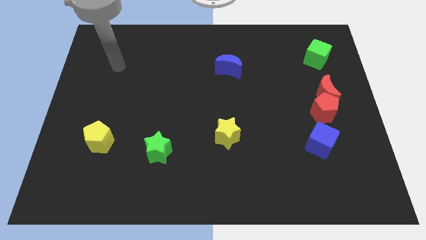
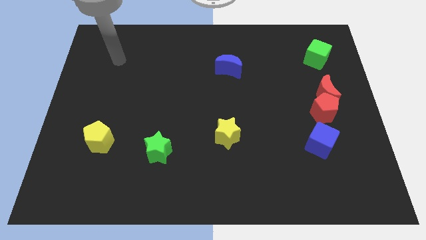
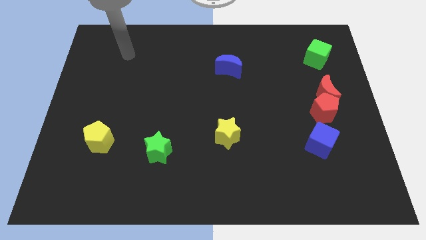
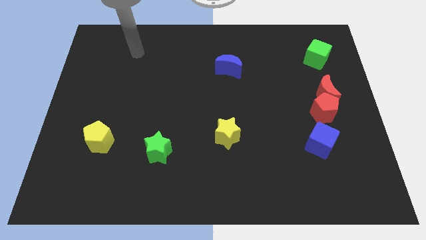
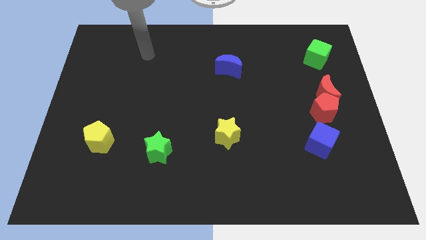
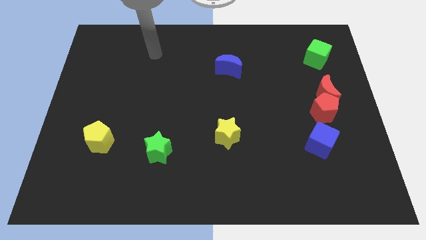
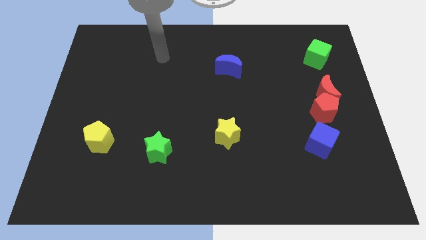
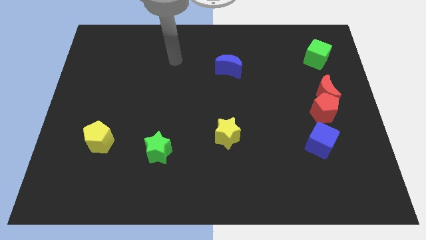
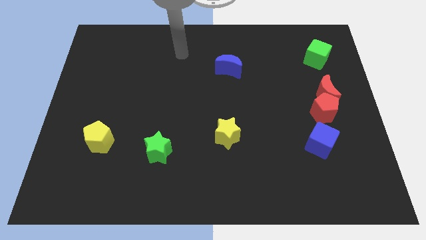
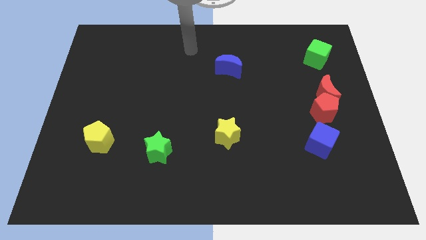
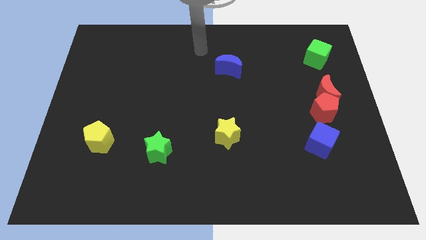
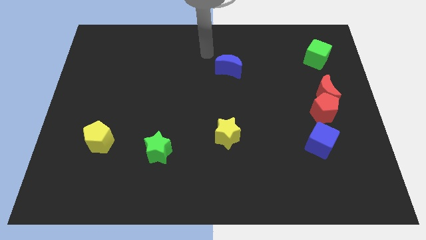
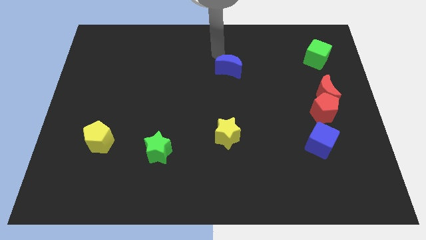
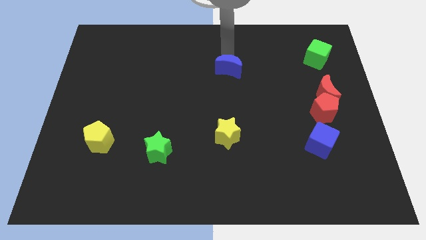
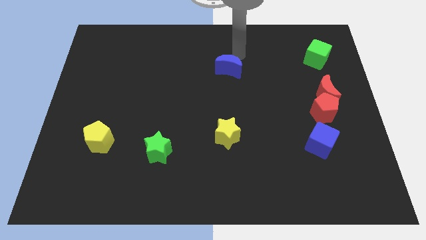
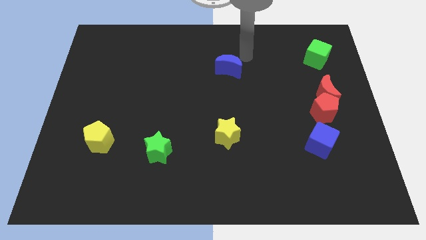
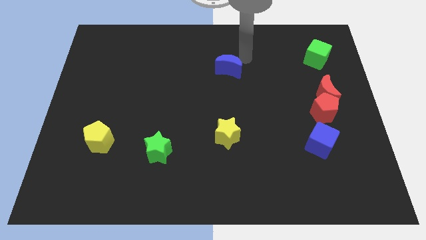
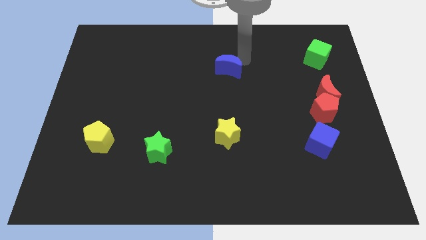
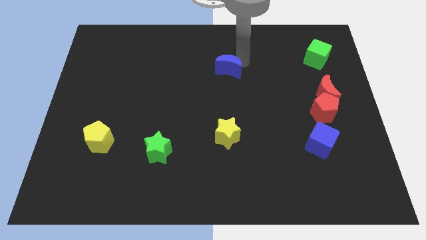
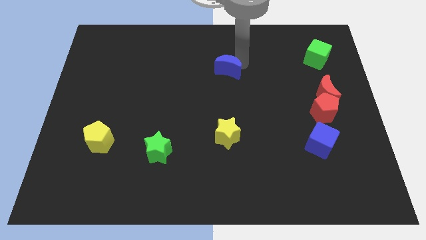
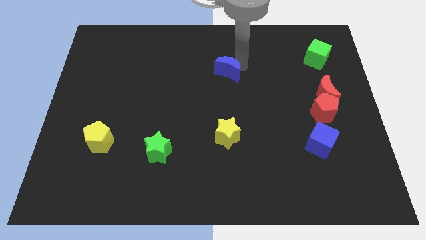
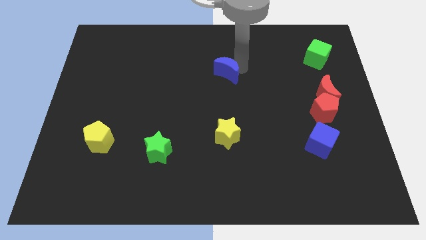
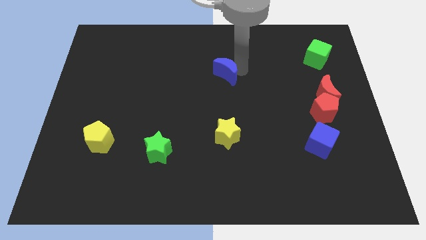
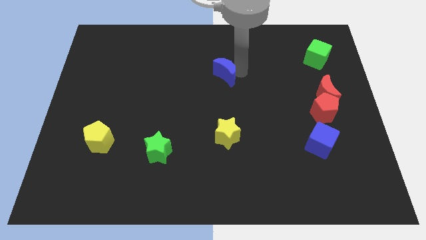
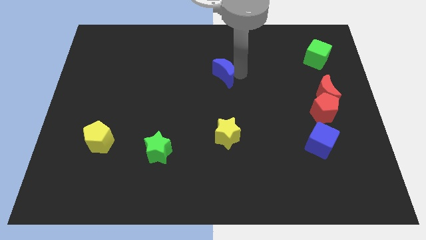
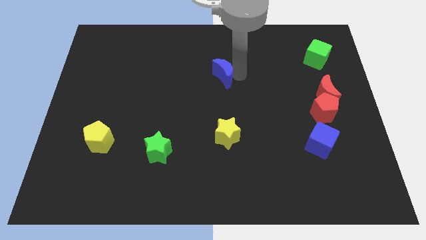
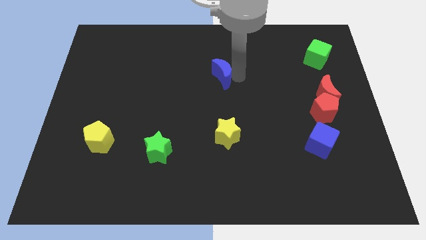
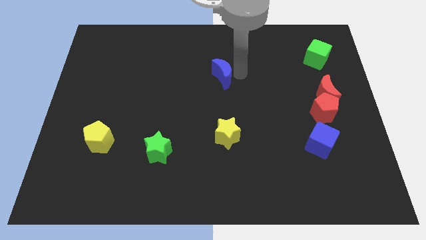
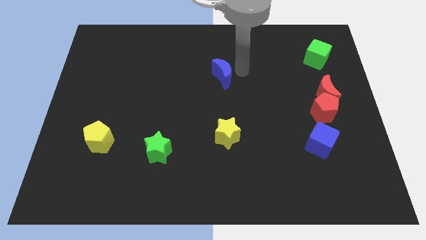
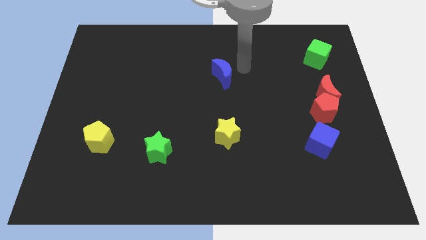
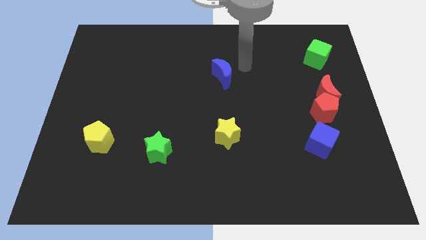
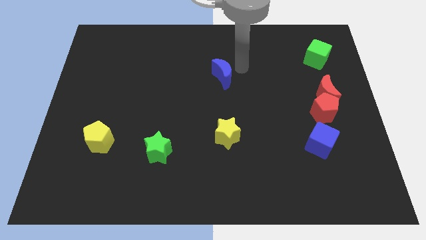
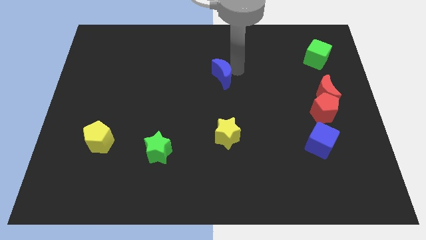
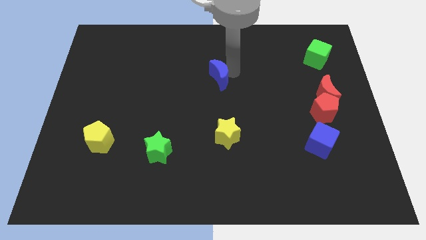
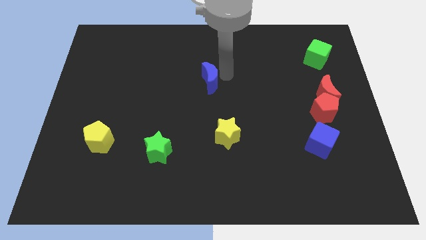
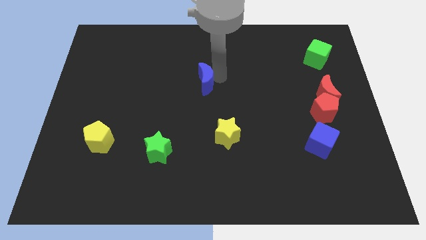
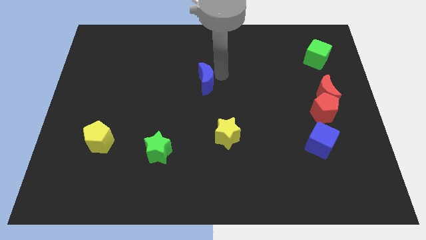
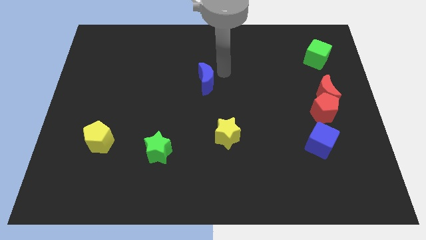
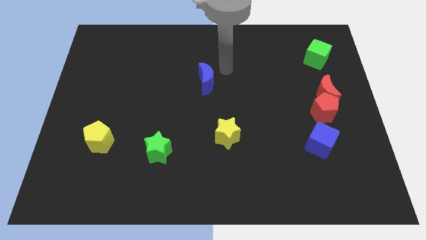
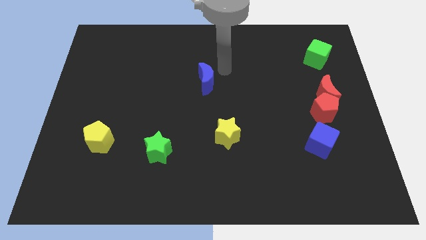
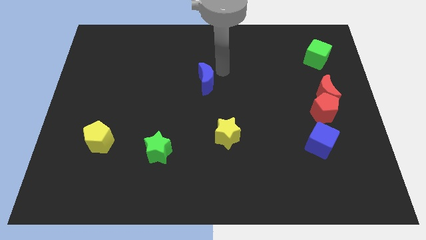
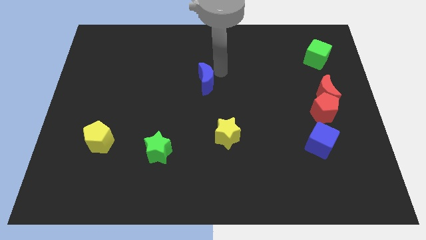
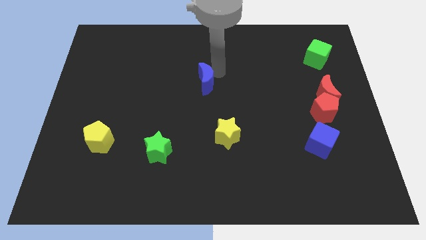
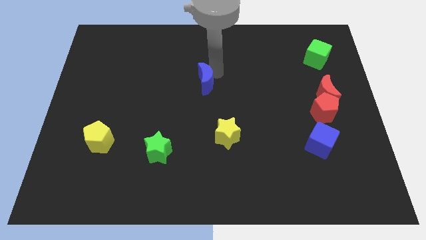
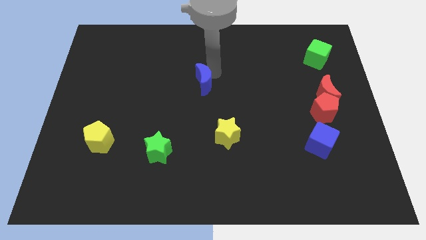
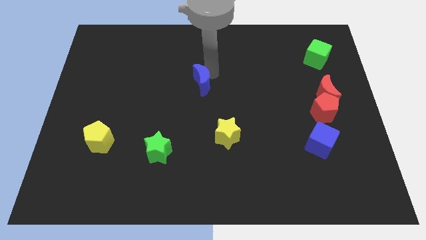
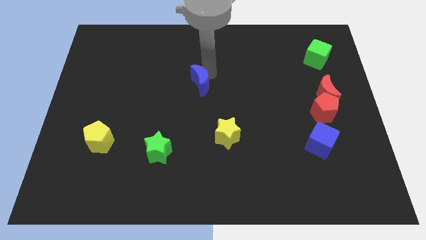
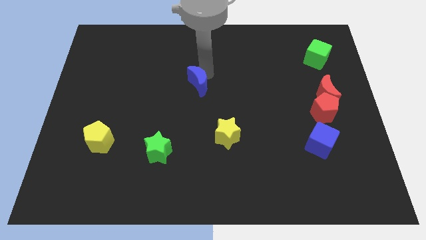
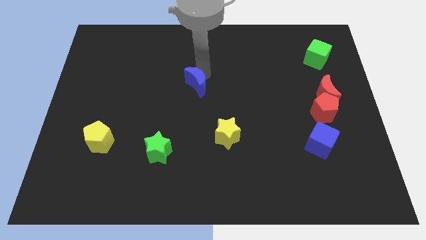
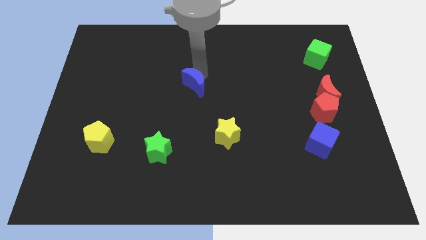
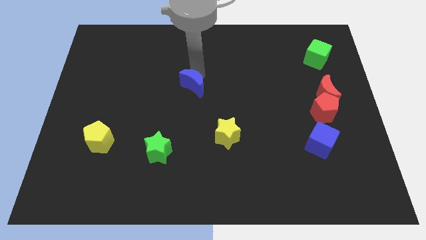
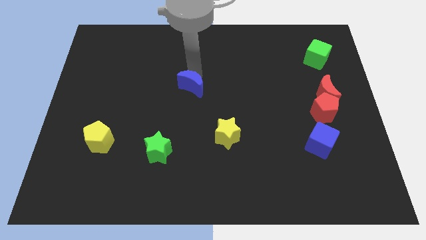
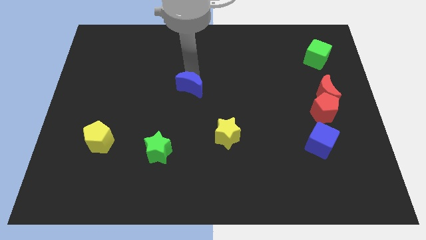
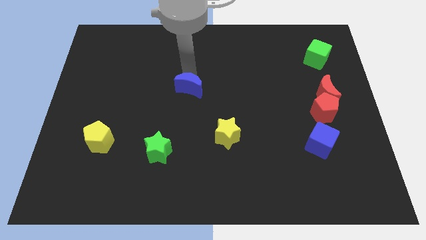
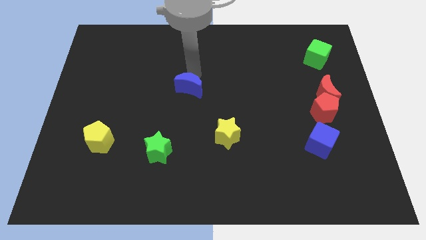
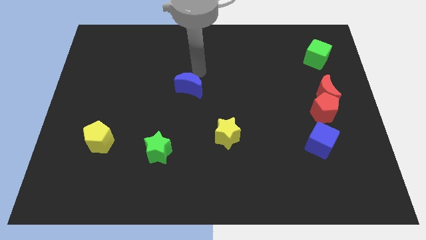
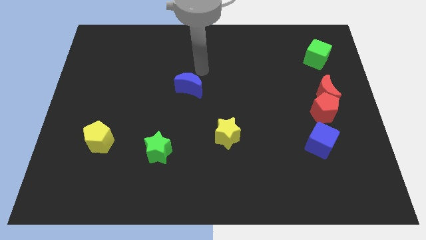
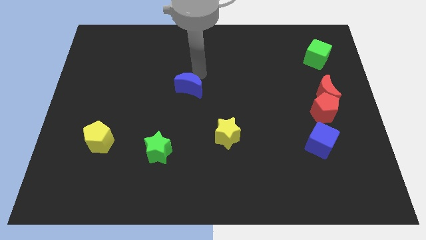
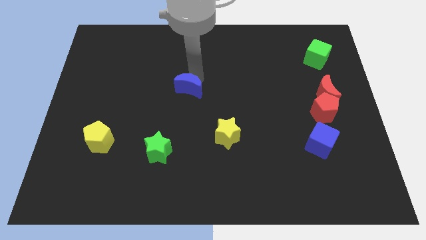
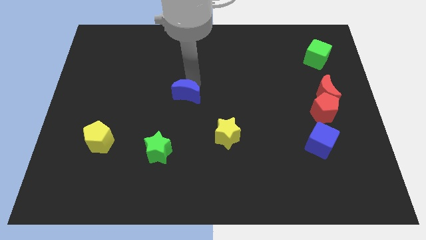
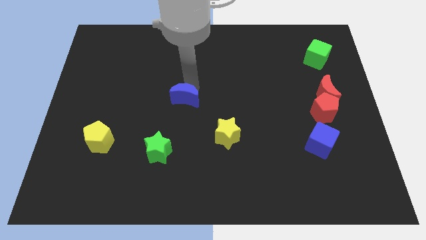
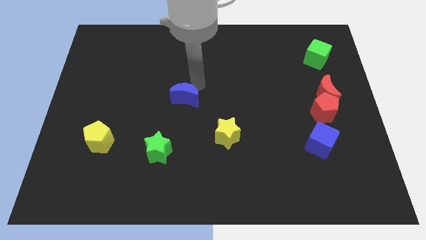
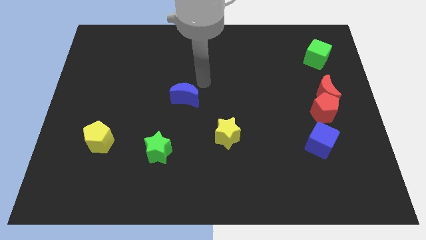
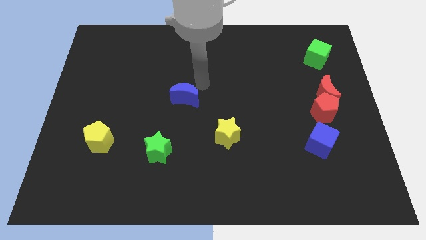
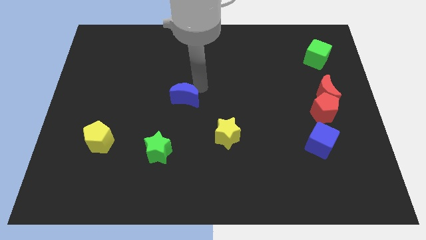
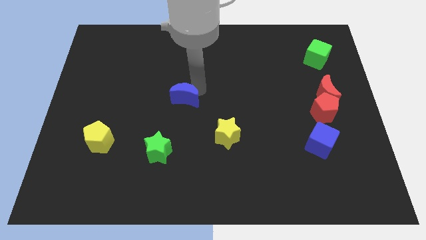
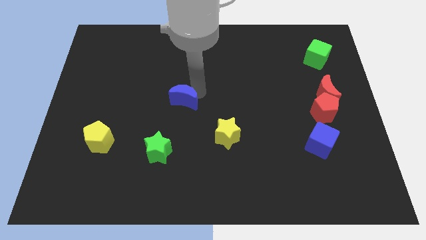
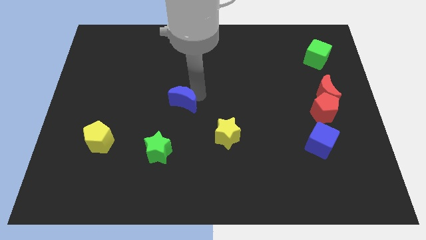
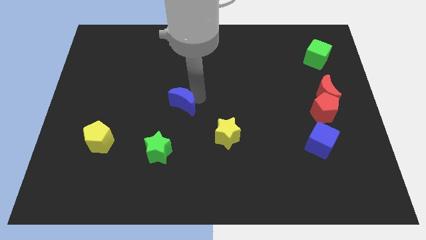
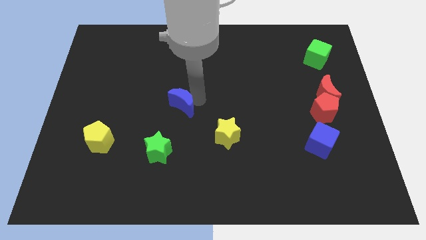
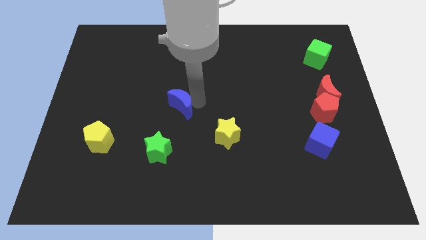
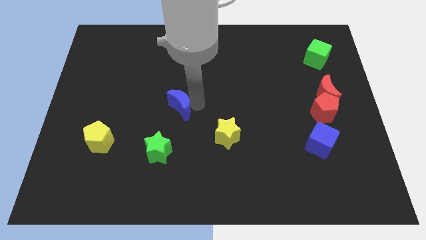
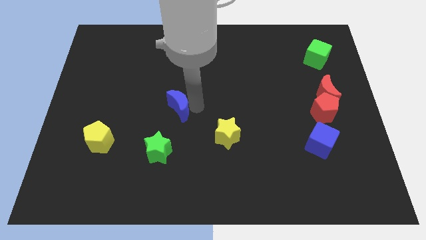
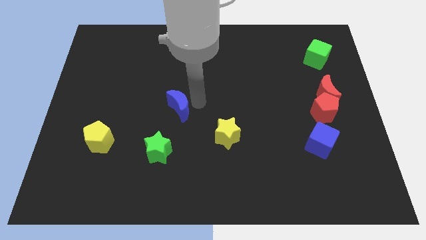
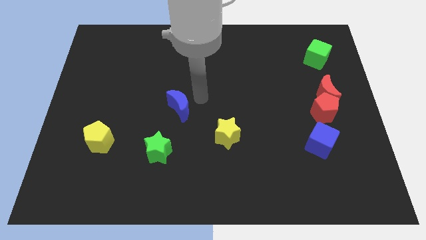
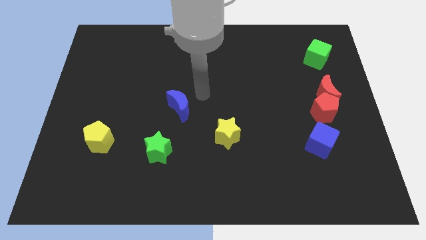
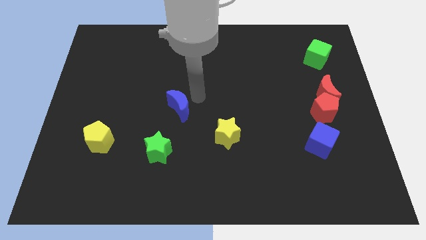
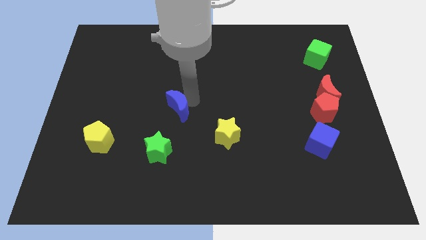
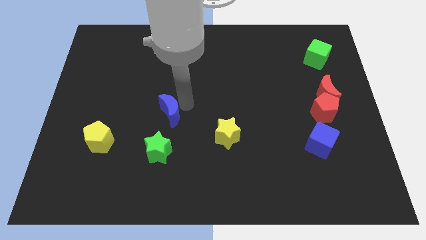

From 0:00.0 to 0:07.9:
push the blue moon down and then to the left

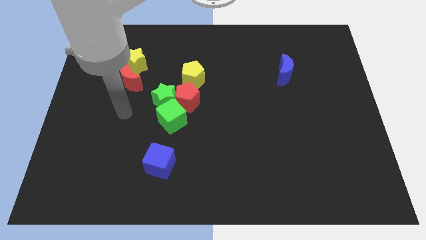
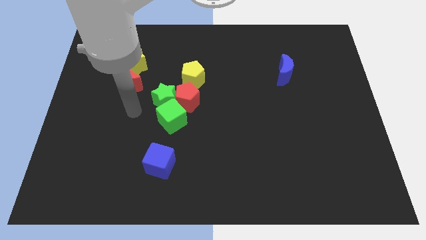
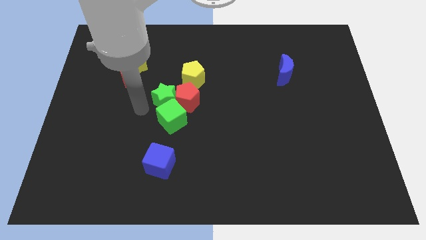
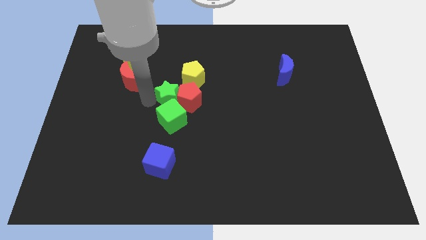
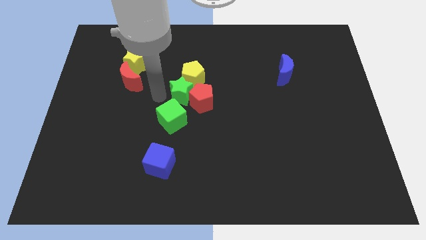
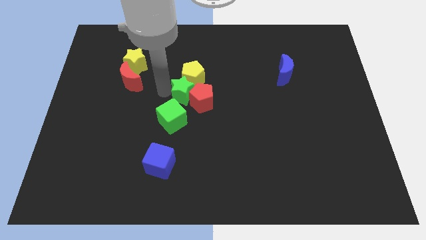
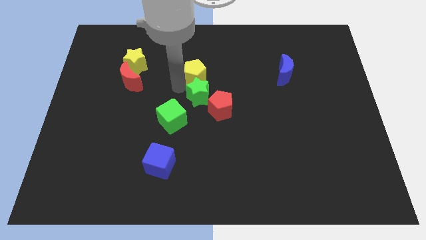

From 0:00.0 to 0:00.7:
move the red pentagon a little bit down and right diagonally

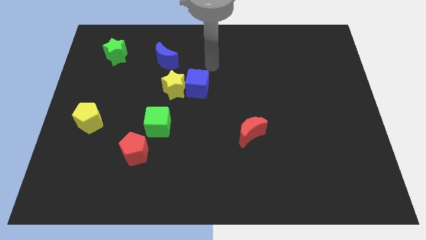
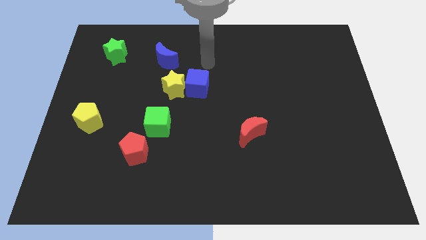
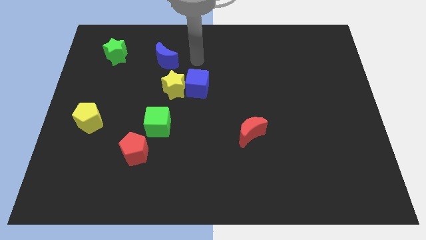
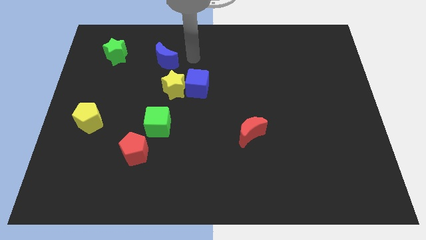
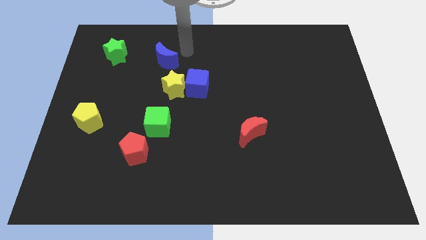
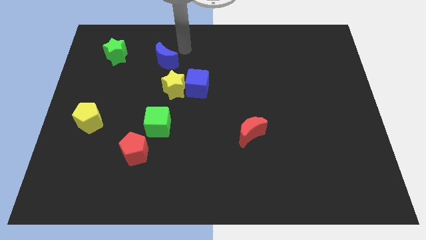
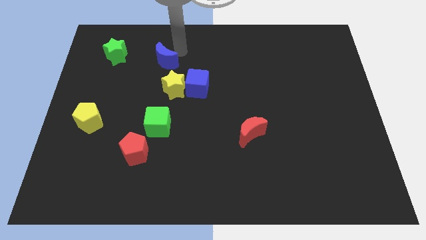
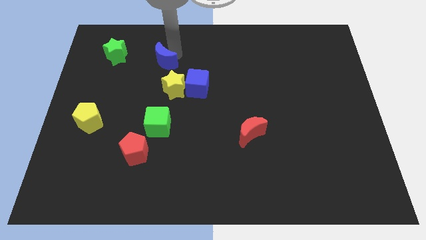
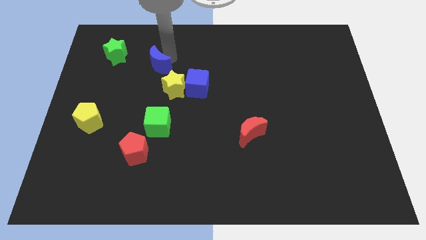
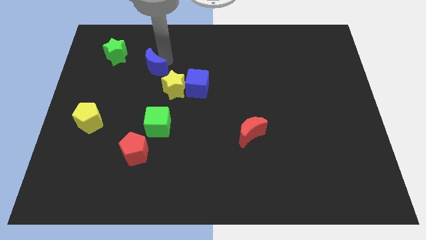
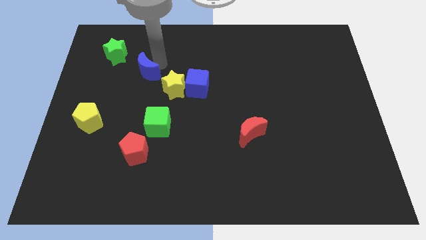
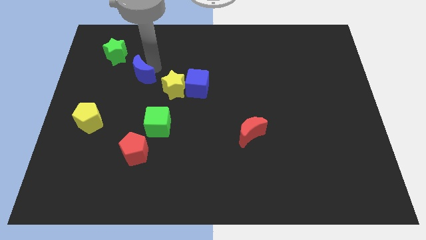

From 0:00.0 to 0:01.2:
slightly slide the blue moon downwards and left diagonally
